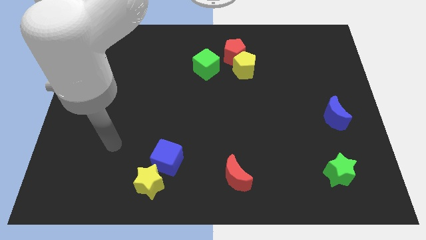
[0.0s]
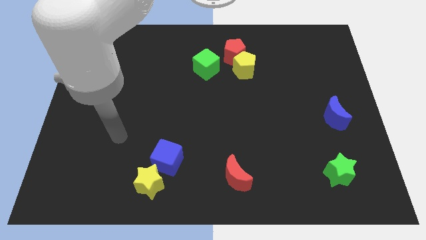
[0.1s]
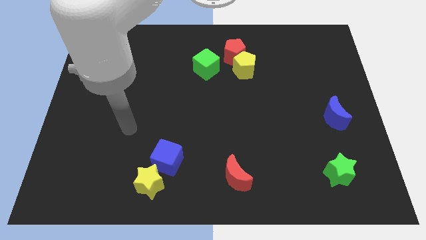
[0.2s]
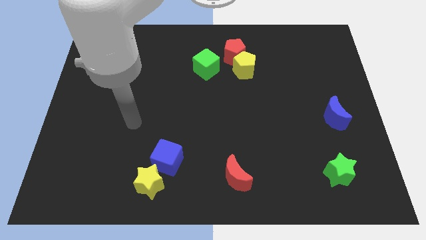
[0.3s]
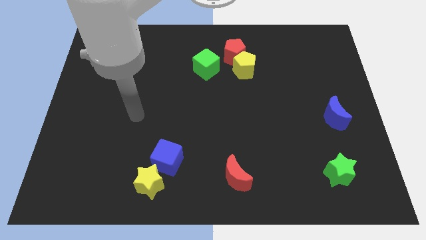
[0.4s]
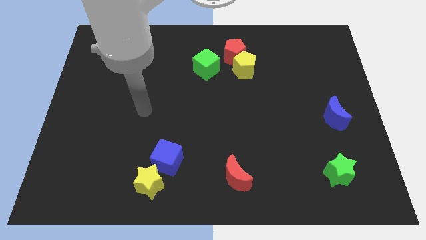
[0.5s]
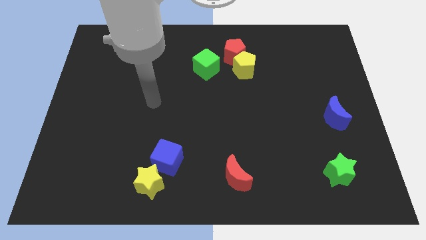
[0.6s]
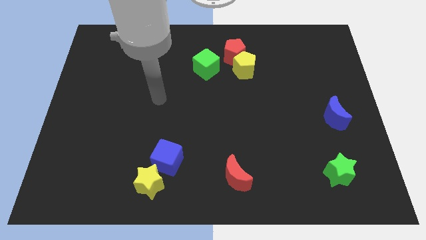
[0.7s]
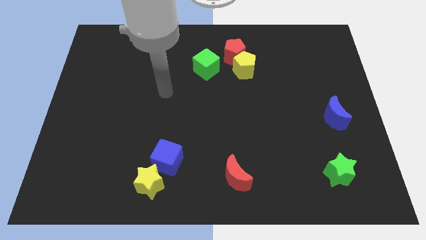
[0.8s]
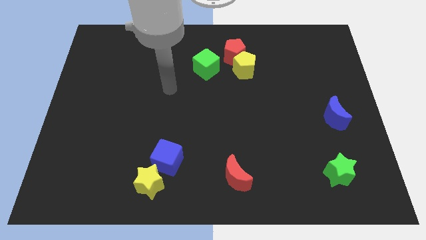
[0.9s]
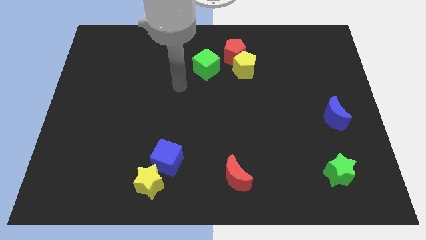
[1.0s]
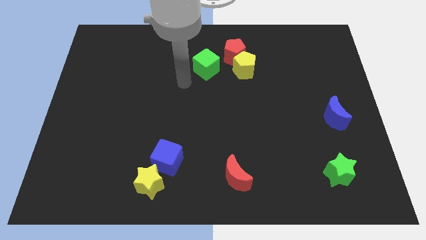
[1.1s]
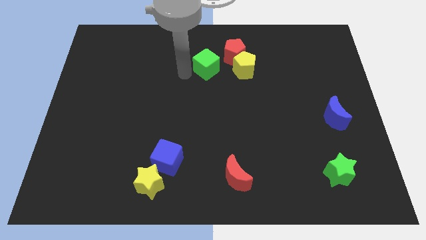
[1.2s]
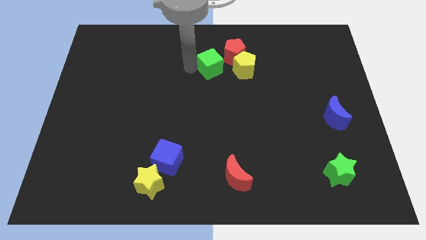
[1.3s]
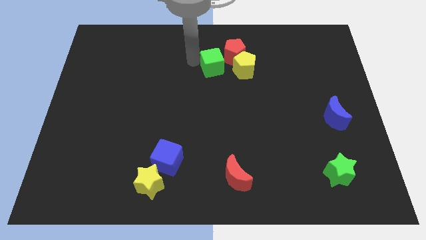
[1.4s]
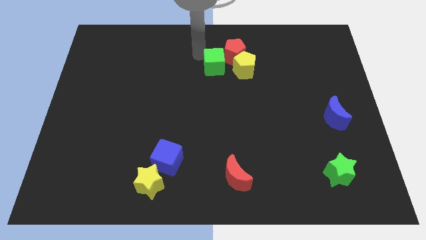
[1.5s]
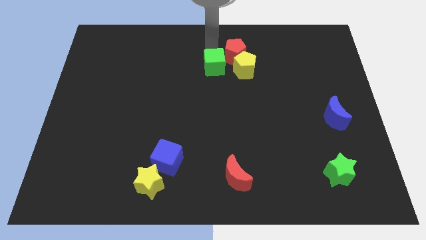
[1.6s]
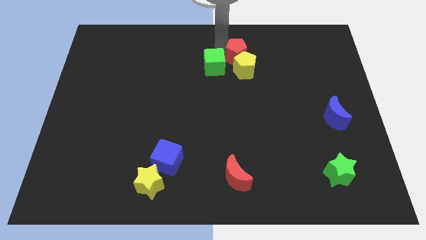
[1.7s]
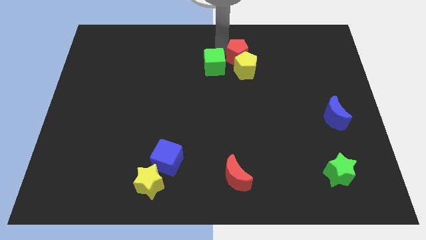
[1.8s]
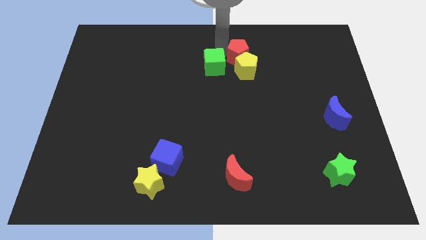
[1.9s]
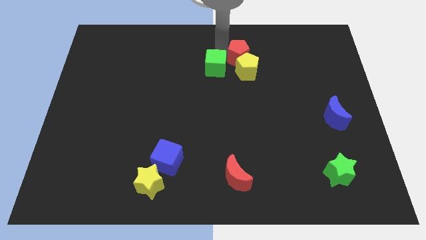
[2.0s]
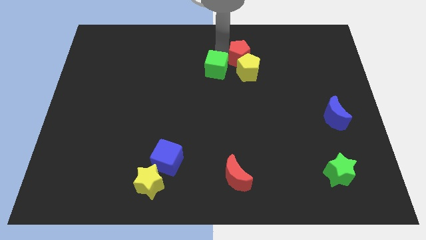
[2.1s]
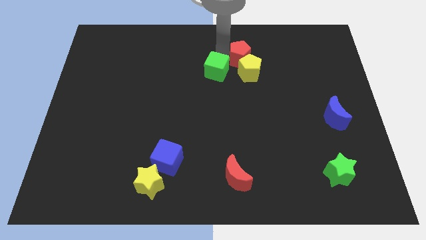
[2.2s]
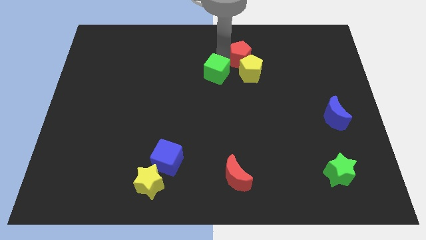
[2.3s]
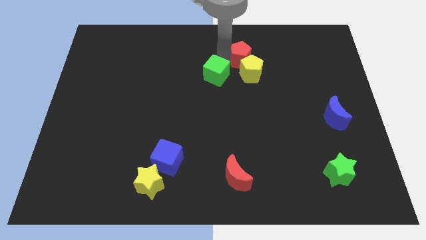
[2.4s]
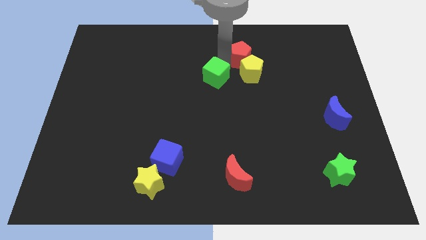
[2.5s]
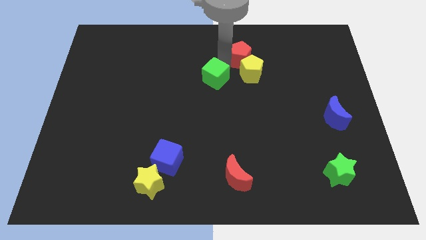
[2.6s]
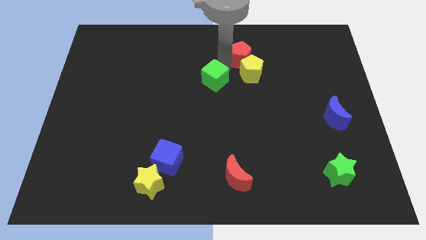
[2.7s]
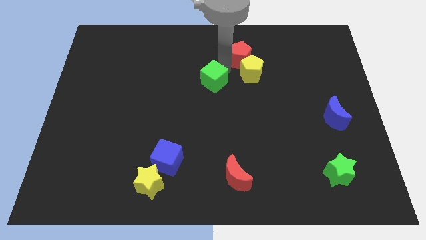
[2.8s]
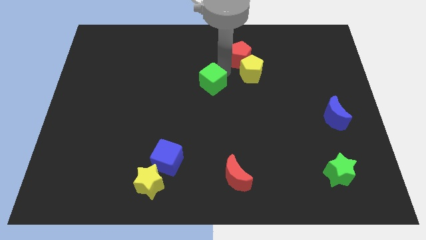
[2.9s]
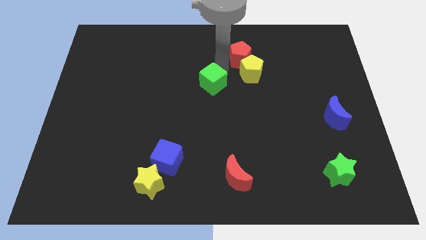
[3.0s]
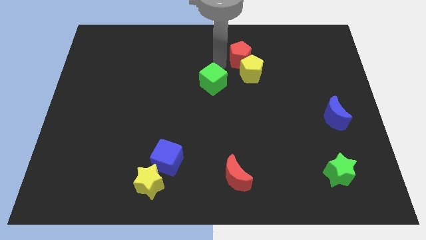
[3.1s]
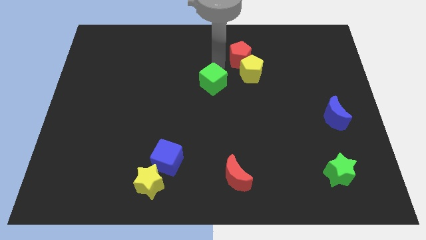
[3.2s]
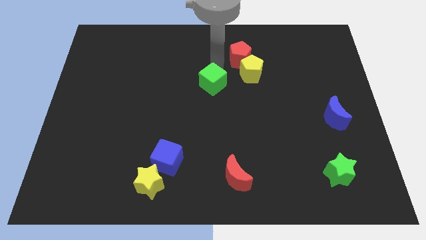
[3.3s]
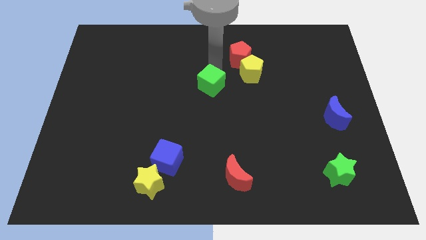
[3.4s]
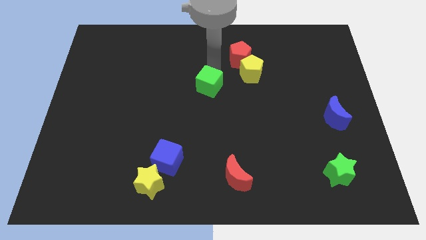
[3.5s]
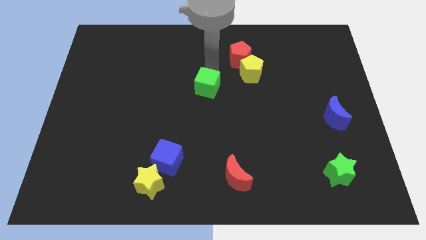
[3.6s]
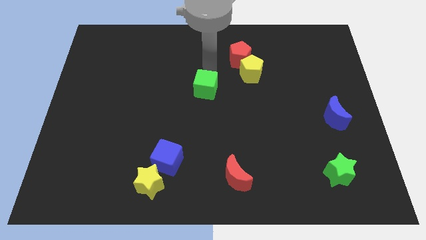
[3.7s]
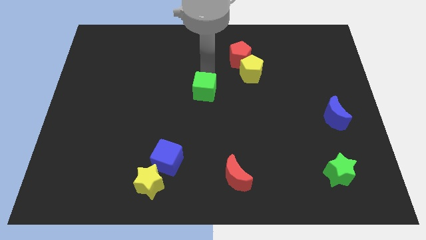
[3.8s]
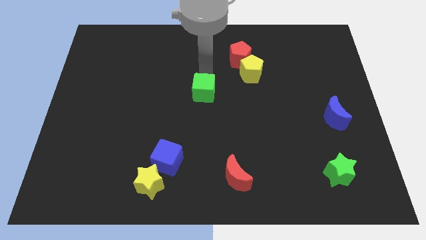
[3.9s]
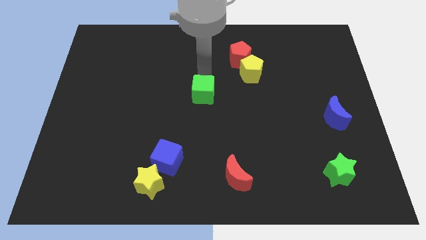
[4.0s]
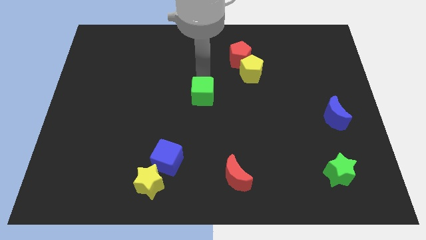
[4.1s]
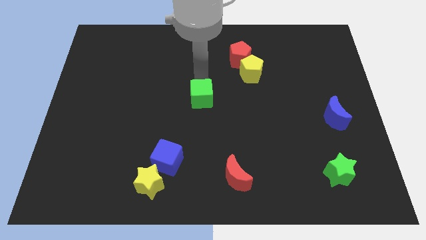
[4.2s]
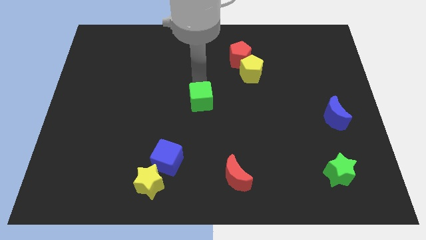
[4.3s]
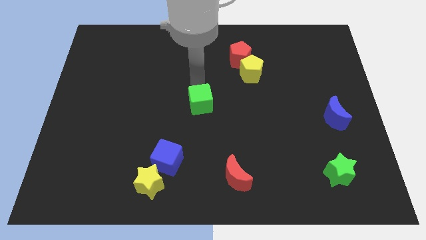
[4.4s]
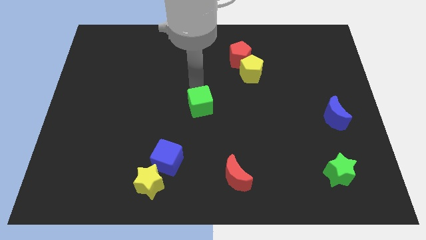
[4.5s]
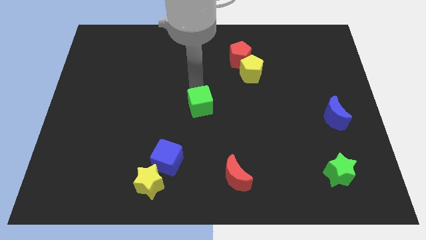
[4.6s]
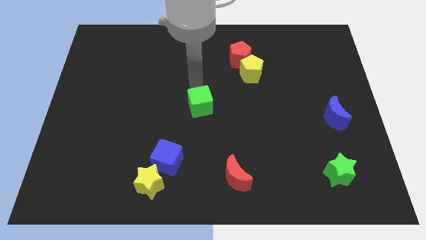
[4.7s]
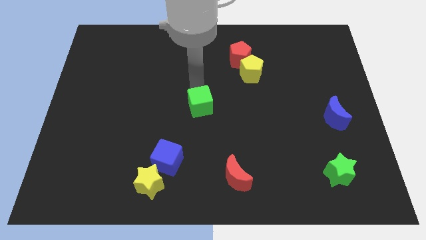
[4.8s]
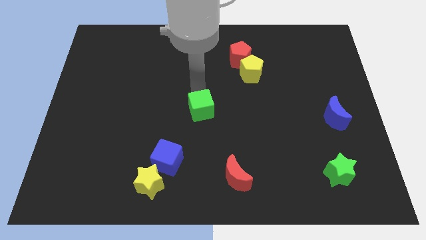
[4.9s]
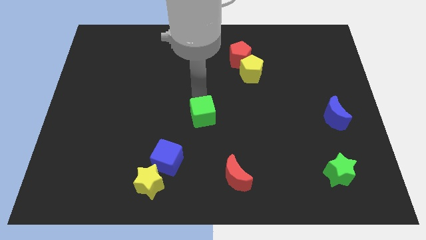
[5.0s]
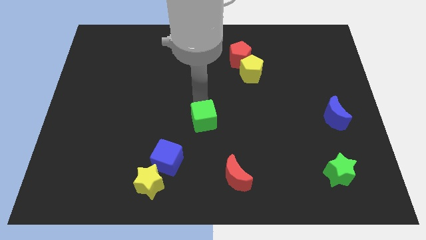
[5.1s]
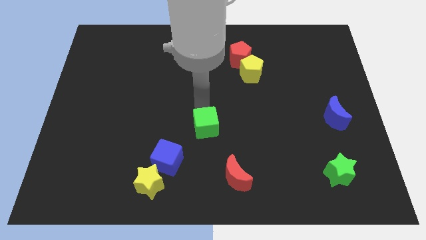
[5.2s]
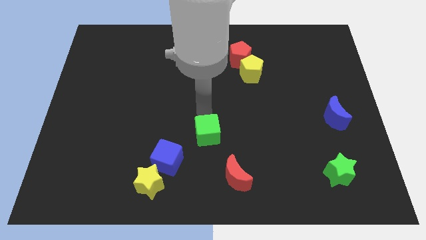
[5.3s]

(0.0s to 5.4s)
push the green cube down

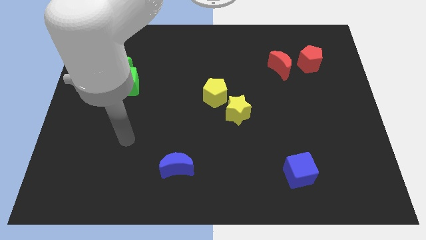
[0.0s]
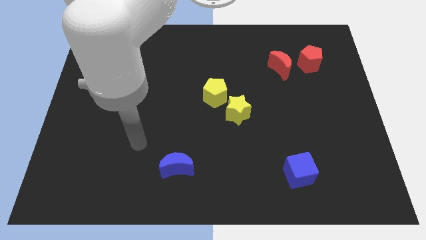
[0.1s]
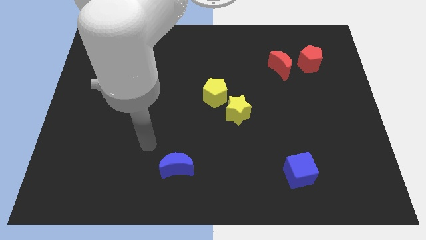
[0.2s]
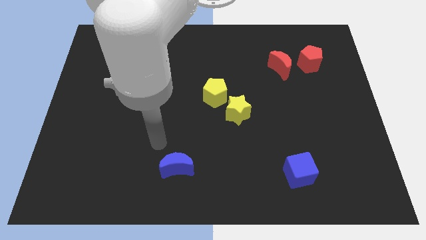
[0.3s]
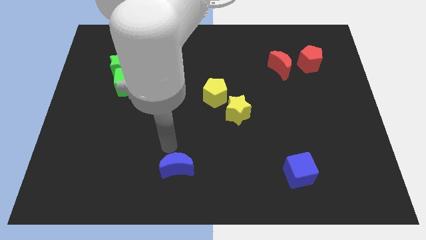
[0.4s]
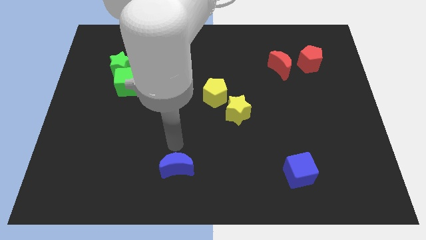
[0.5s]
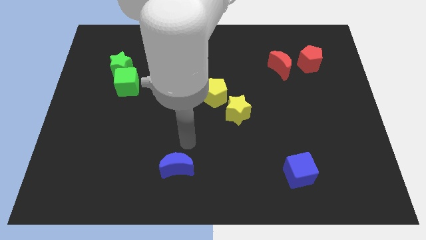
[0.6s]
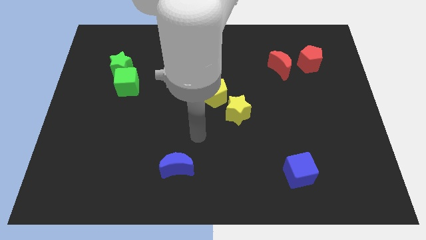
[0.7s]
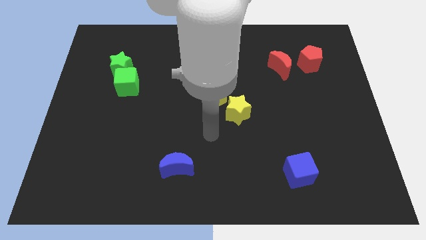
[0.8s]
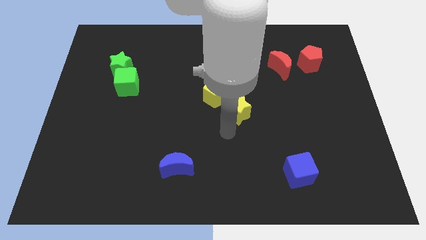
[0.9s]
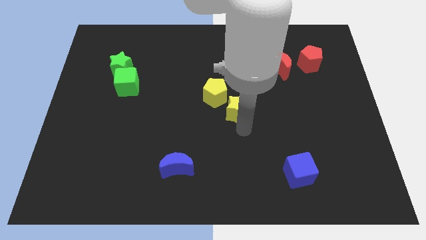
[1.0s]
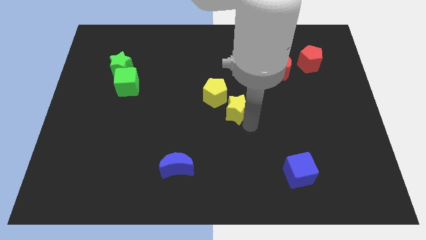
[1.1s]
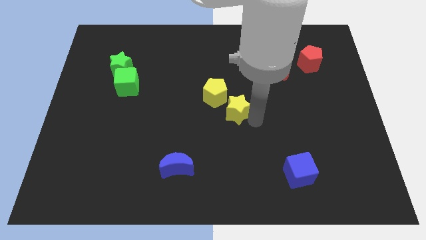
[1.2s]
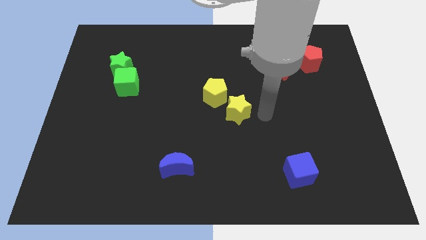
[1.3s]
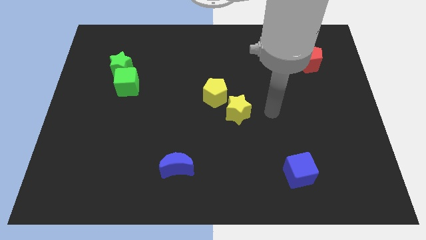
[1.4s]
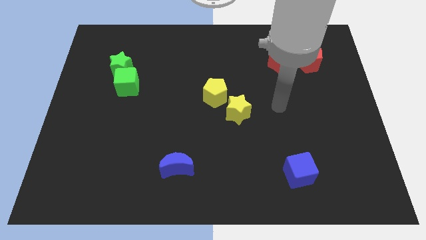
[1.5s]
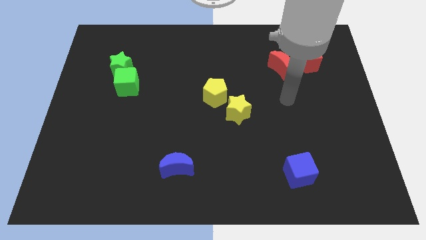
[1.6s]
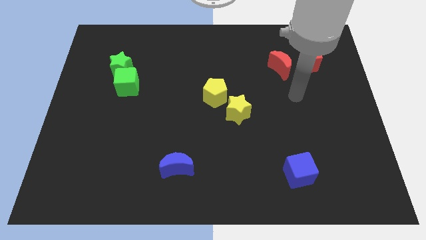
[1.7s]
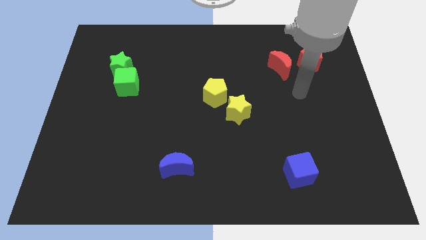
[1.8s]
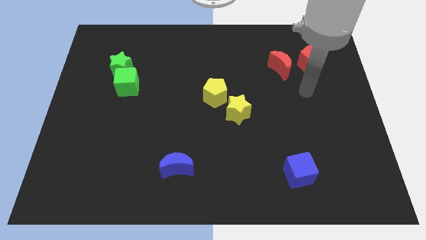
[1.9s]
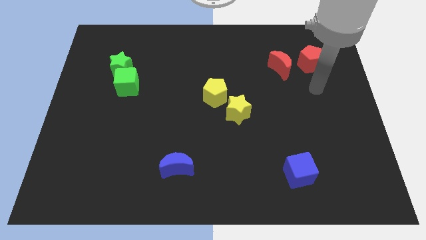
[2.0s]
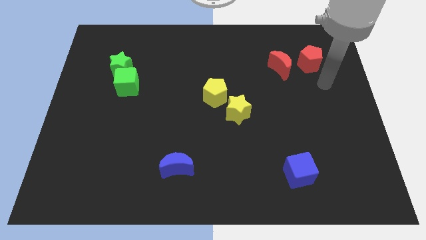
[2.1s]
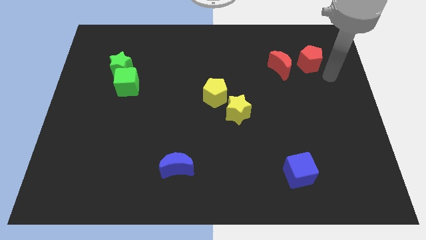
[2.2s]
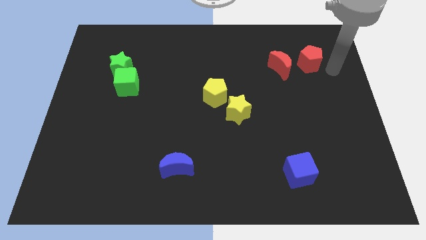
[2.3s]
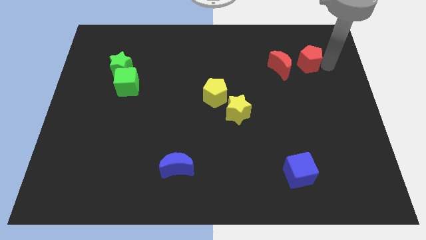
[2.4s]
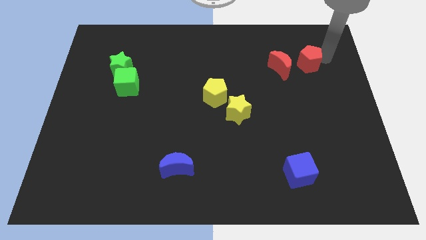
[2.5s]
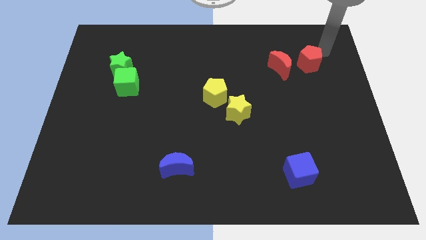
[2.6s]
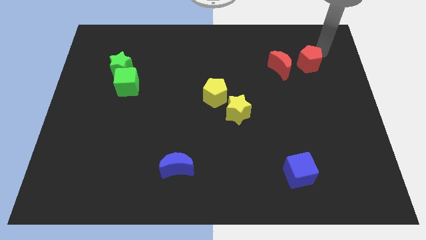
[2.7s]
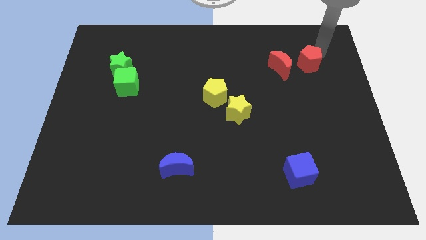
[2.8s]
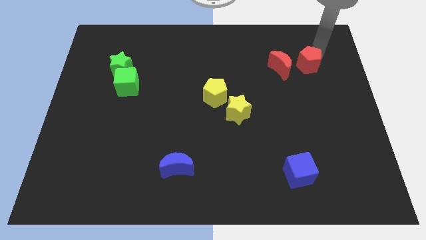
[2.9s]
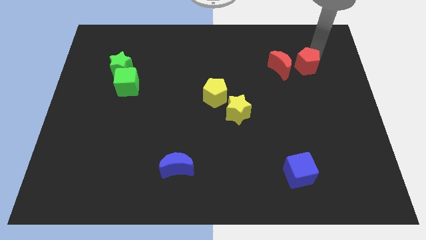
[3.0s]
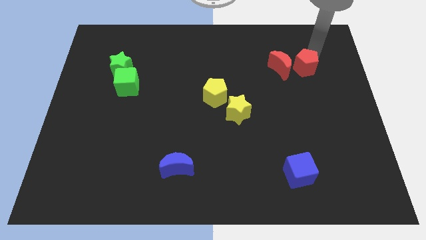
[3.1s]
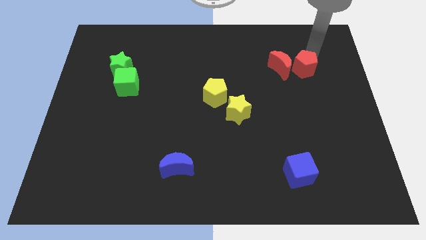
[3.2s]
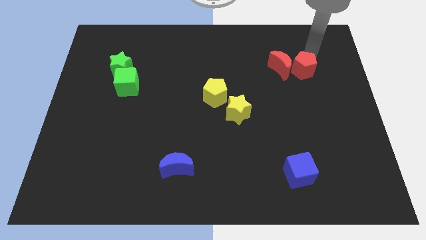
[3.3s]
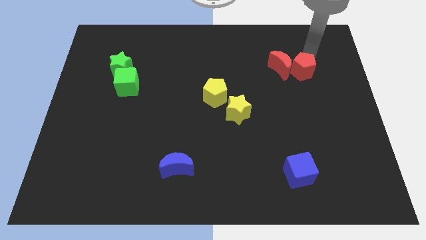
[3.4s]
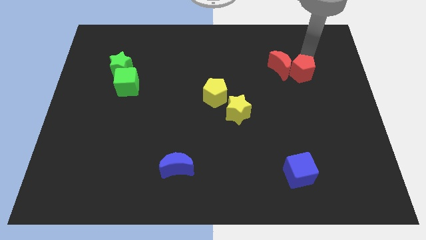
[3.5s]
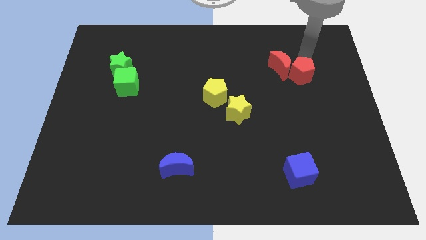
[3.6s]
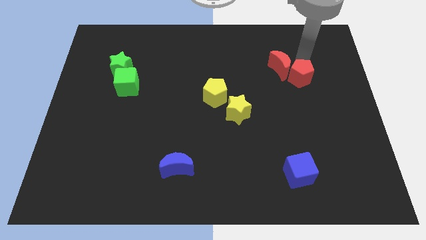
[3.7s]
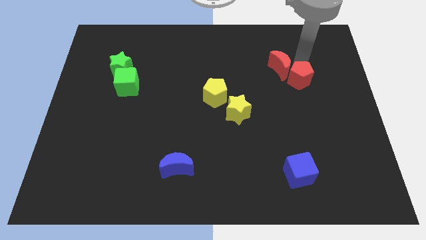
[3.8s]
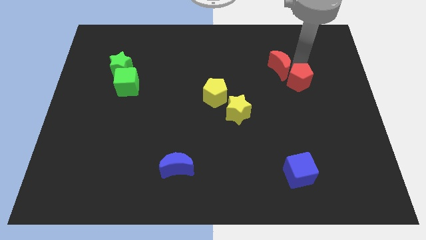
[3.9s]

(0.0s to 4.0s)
slightly slide the red pentagon downwards and to the left
